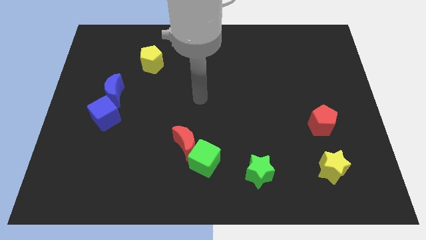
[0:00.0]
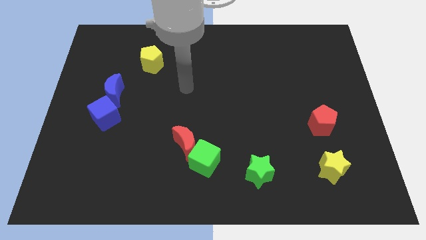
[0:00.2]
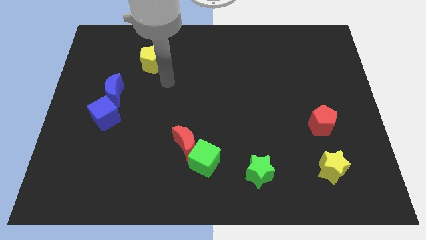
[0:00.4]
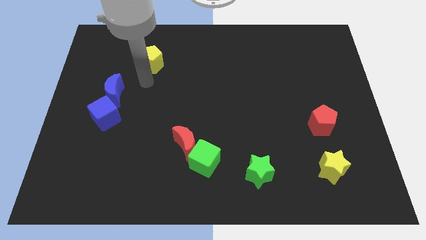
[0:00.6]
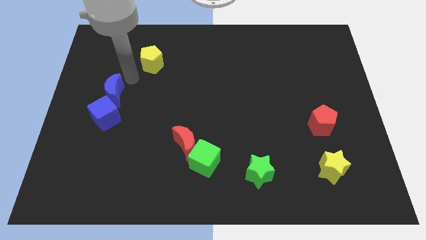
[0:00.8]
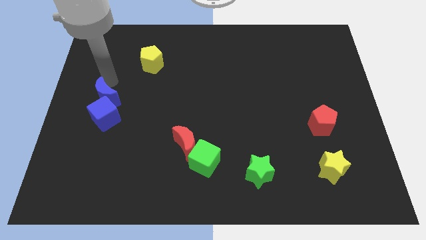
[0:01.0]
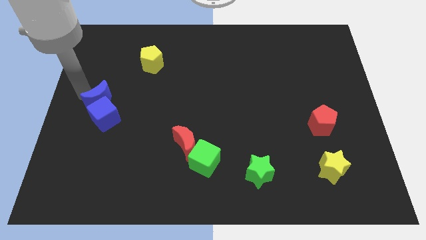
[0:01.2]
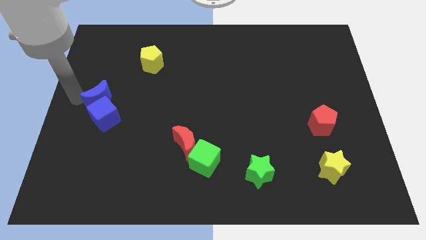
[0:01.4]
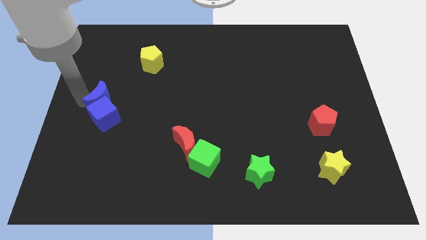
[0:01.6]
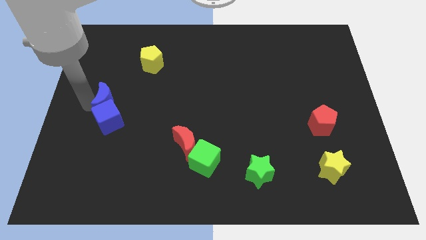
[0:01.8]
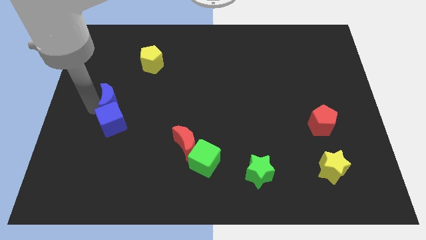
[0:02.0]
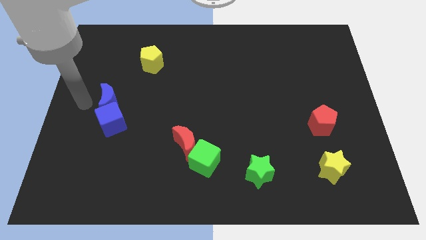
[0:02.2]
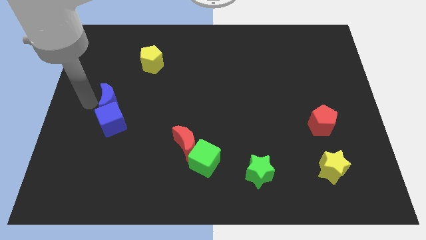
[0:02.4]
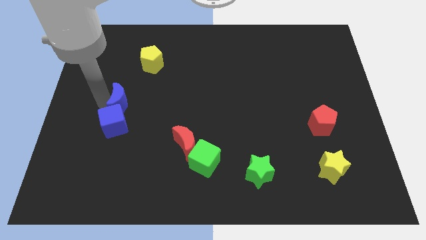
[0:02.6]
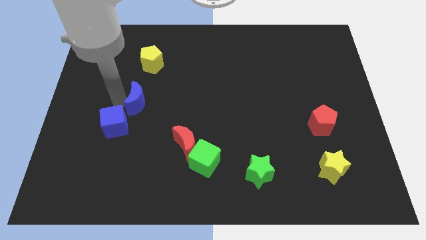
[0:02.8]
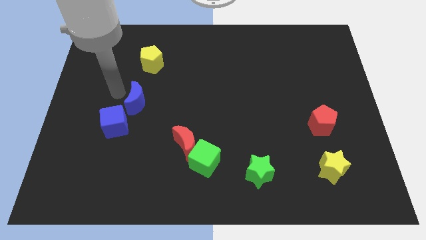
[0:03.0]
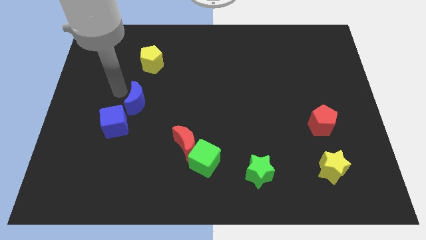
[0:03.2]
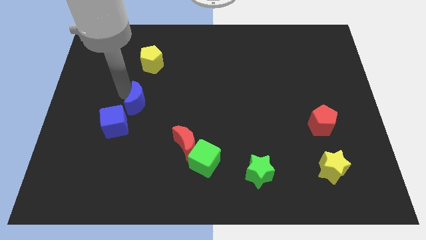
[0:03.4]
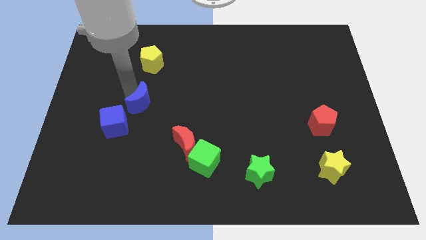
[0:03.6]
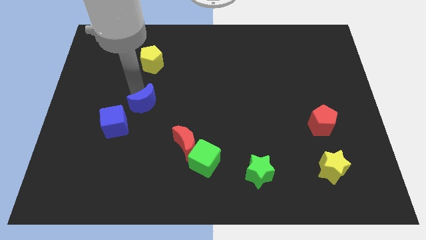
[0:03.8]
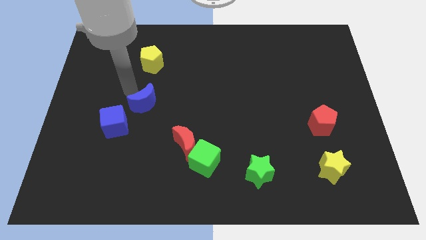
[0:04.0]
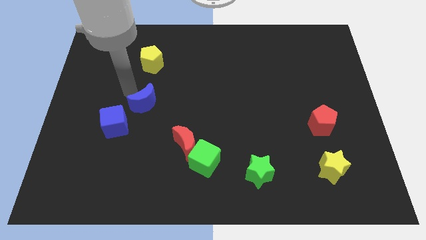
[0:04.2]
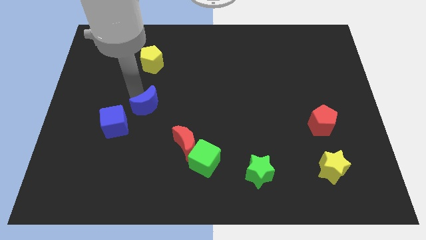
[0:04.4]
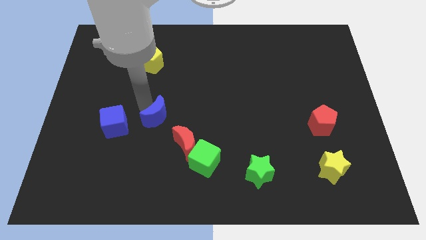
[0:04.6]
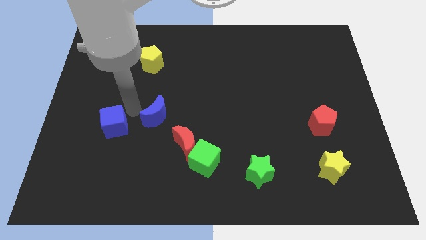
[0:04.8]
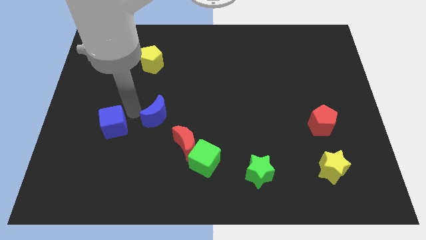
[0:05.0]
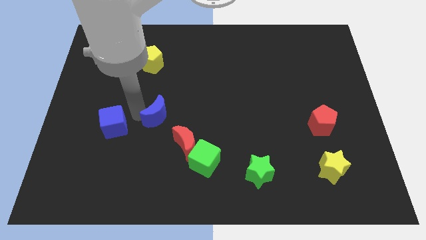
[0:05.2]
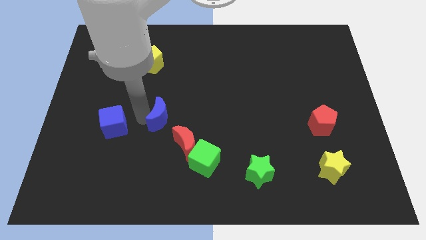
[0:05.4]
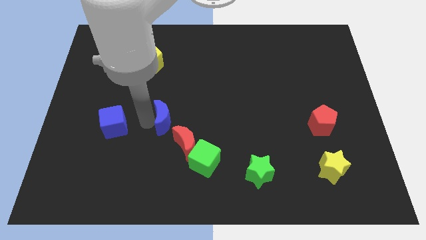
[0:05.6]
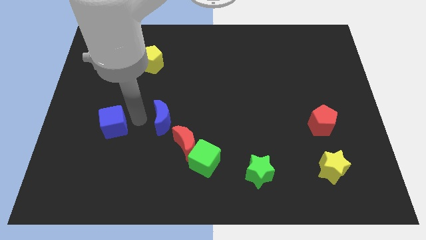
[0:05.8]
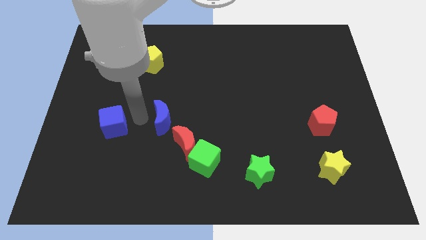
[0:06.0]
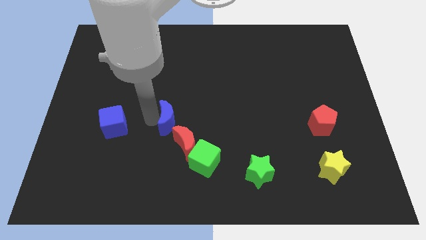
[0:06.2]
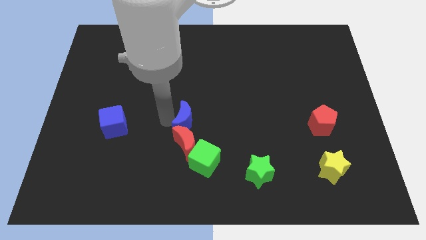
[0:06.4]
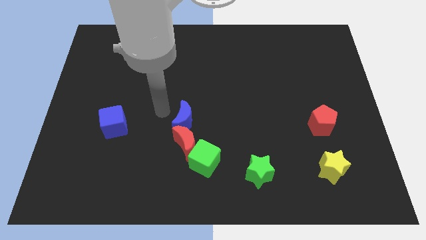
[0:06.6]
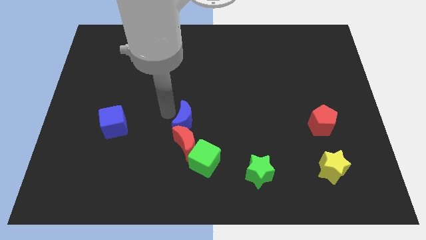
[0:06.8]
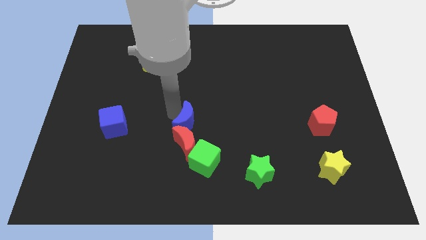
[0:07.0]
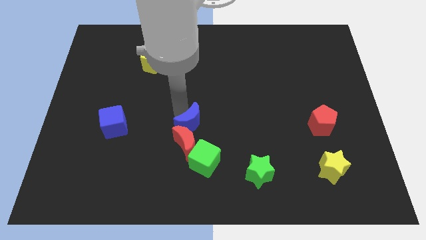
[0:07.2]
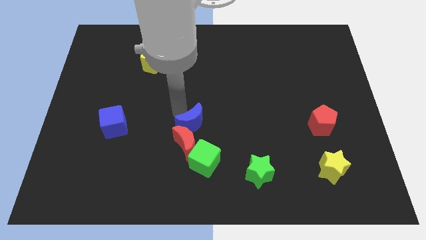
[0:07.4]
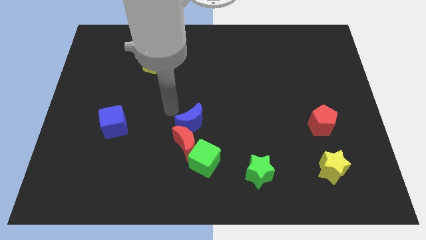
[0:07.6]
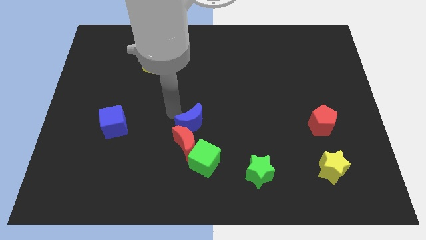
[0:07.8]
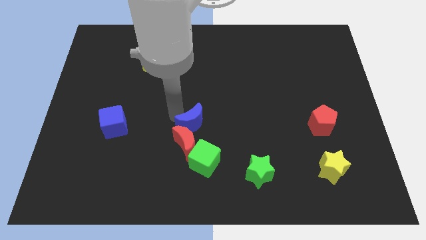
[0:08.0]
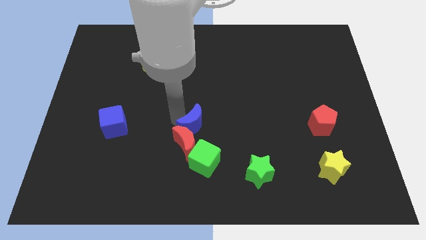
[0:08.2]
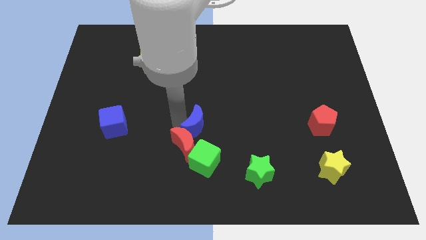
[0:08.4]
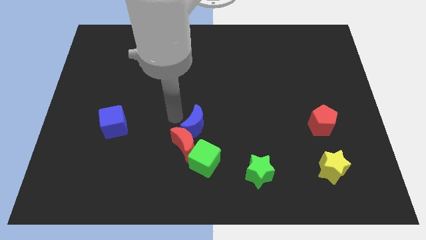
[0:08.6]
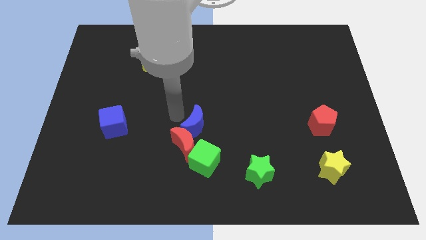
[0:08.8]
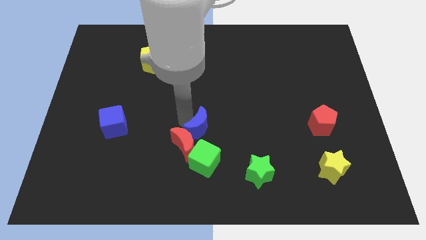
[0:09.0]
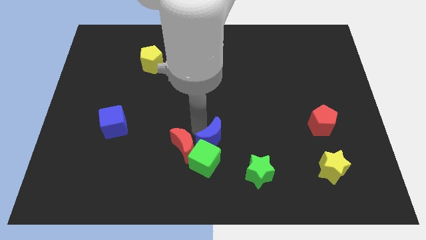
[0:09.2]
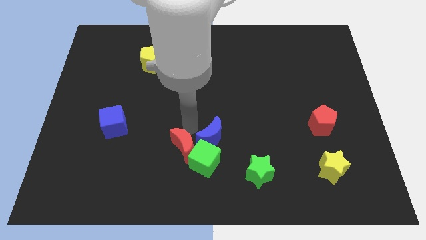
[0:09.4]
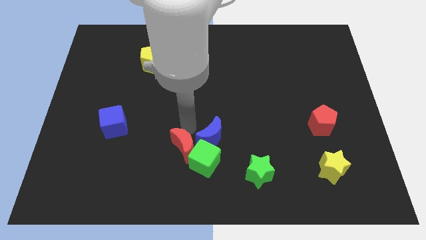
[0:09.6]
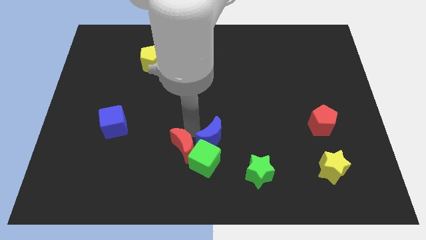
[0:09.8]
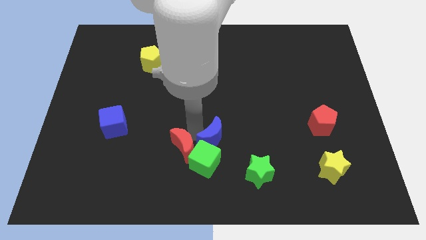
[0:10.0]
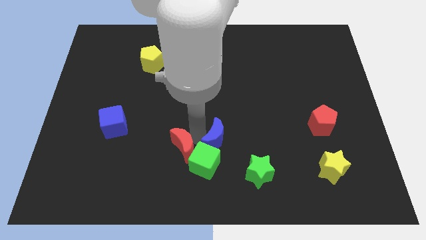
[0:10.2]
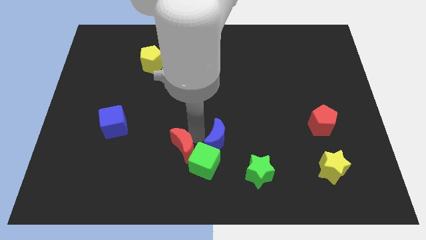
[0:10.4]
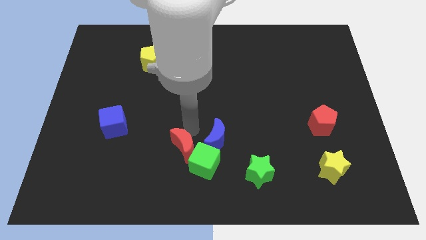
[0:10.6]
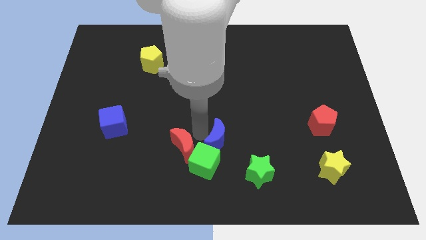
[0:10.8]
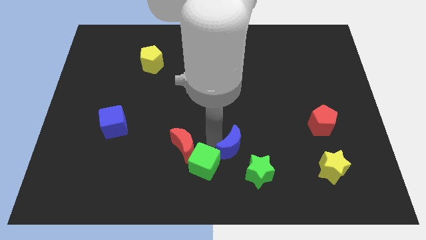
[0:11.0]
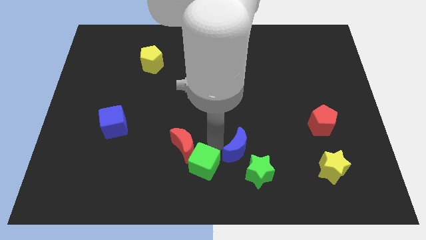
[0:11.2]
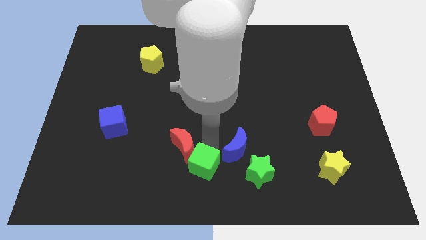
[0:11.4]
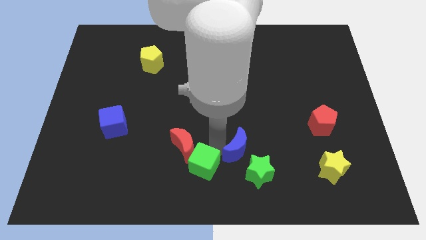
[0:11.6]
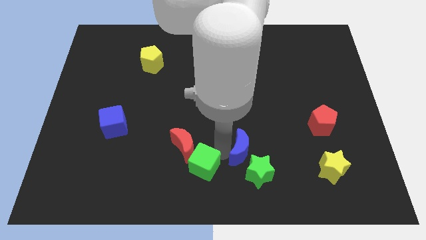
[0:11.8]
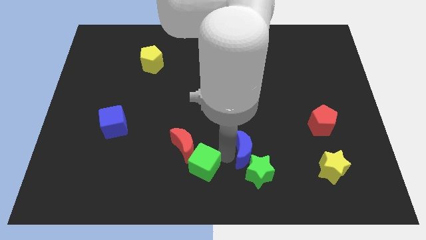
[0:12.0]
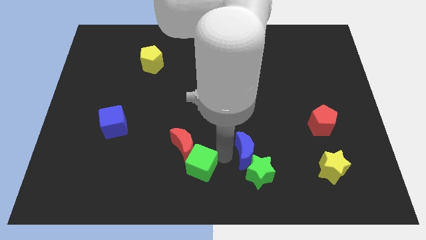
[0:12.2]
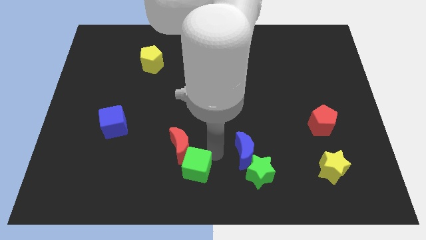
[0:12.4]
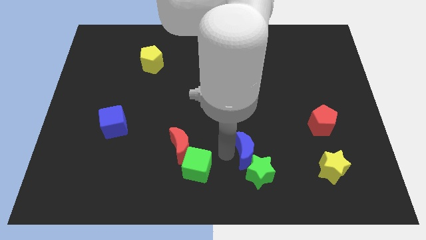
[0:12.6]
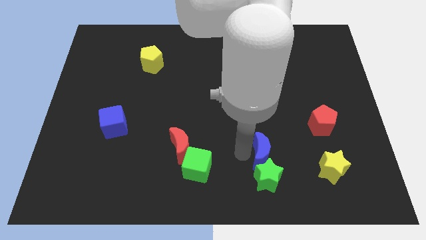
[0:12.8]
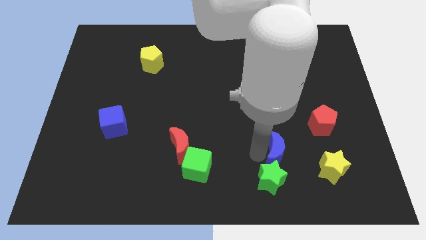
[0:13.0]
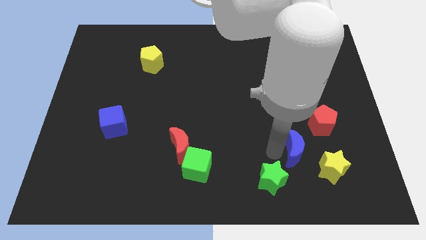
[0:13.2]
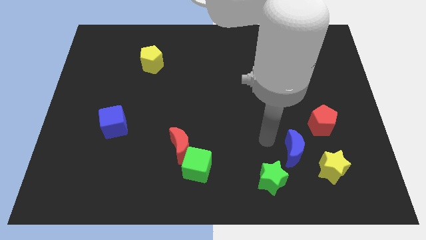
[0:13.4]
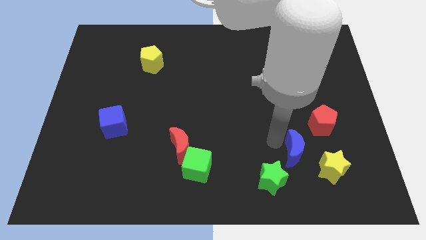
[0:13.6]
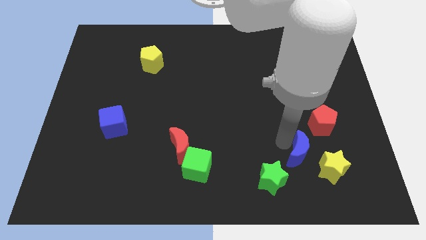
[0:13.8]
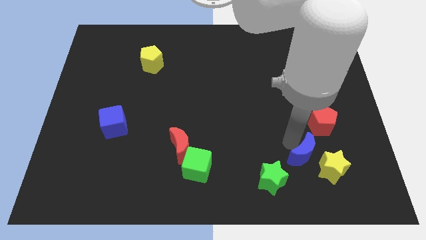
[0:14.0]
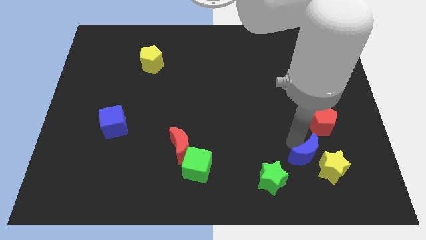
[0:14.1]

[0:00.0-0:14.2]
push the blue moon to the yellow star
